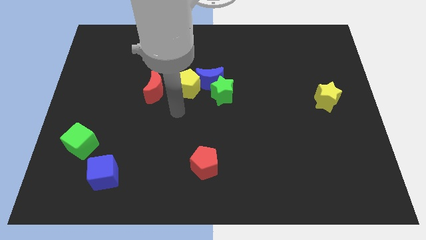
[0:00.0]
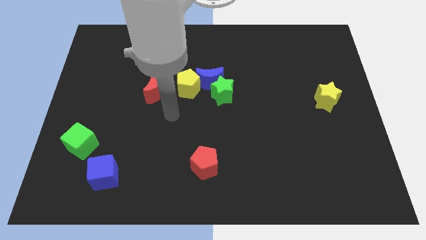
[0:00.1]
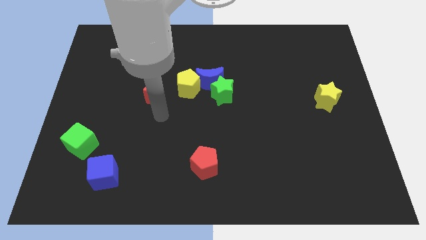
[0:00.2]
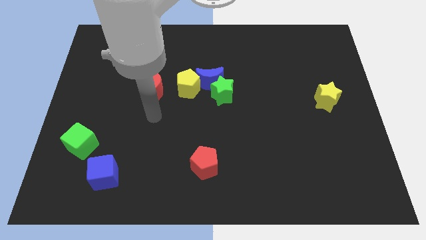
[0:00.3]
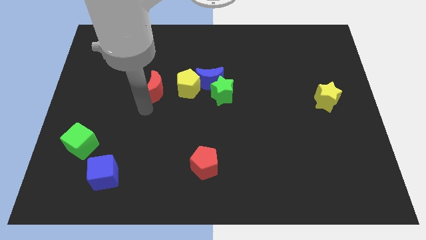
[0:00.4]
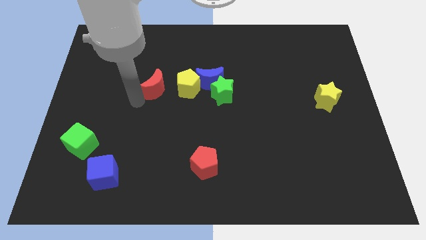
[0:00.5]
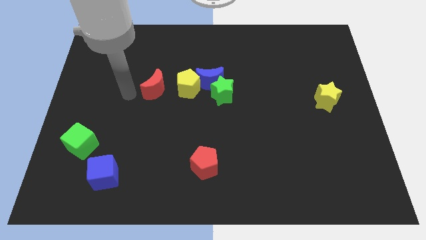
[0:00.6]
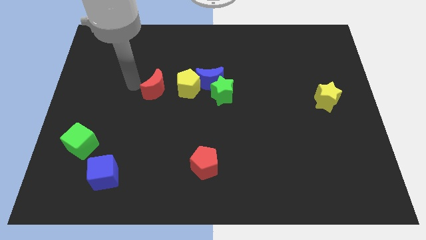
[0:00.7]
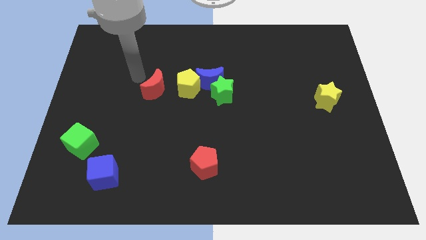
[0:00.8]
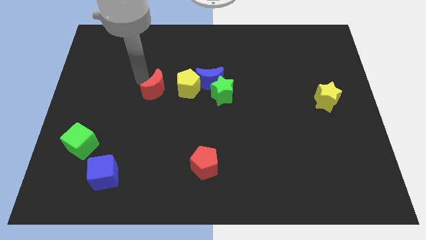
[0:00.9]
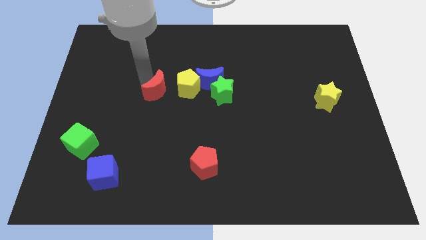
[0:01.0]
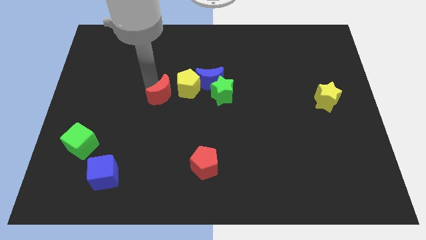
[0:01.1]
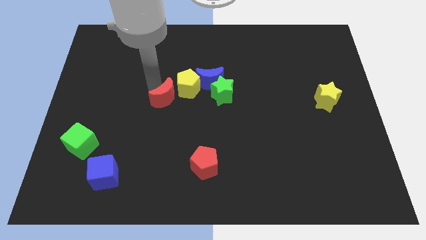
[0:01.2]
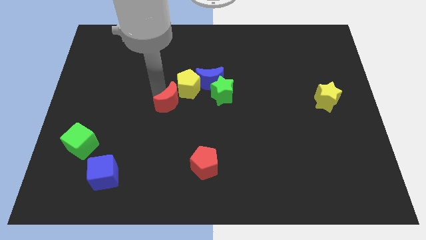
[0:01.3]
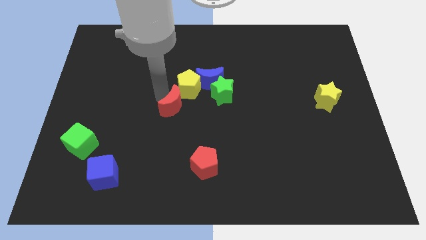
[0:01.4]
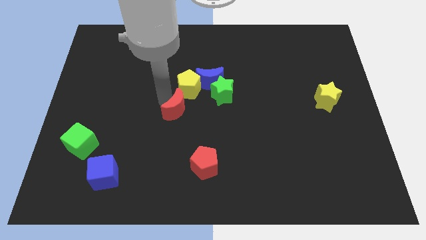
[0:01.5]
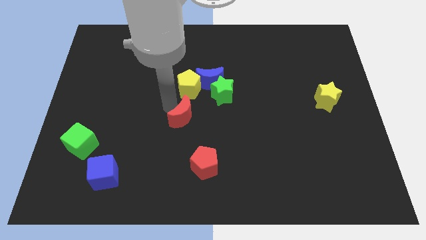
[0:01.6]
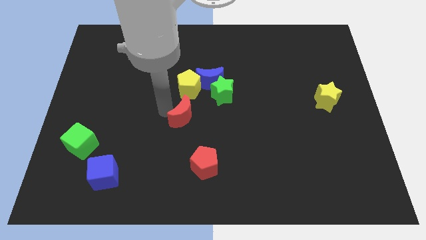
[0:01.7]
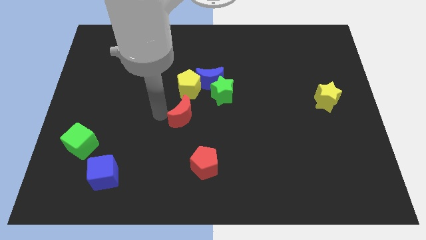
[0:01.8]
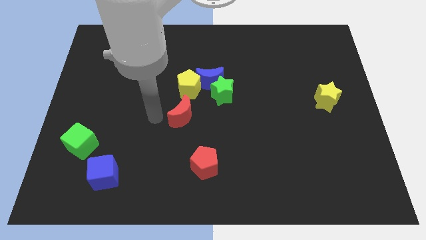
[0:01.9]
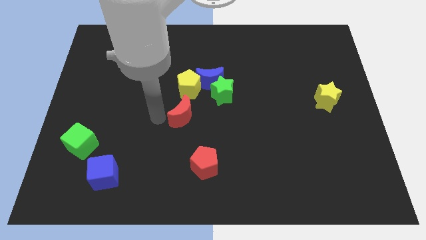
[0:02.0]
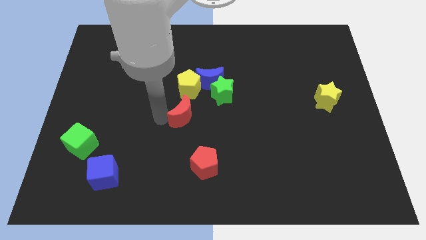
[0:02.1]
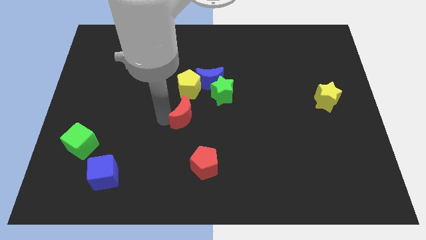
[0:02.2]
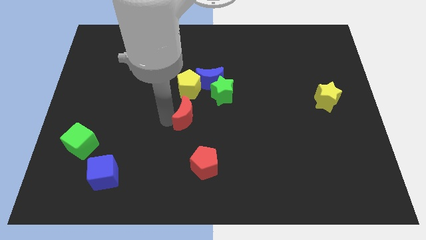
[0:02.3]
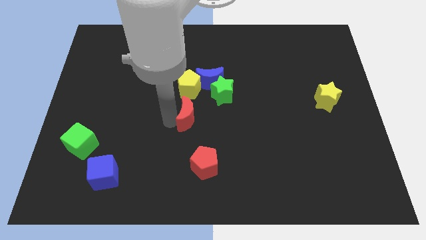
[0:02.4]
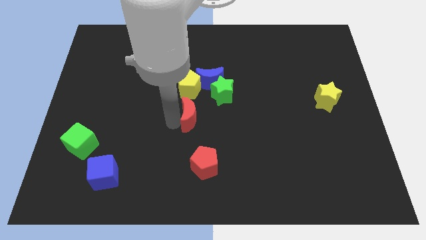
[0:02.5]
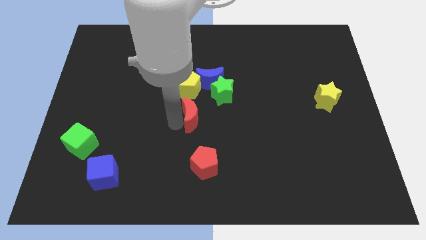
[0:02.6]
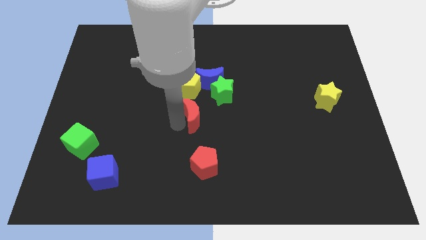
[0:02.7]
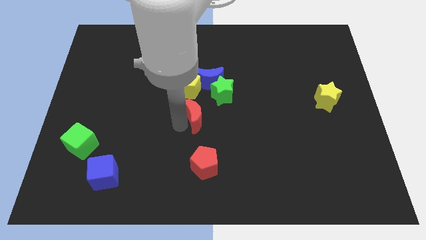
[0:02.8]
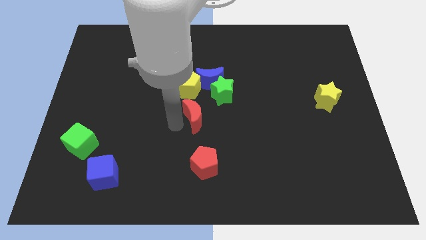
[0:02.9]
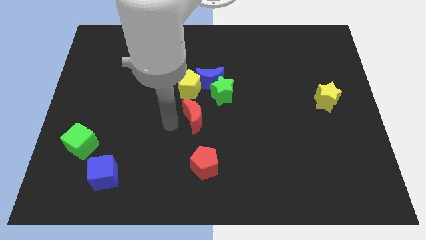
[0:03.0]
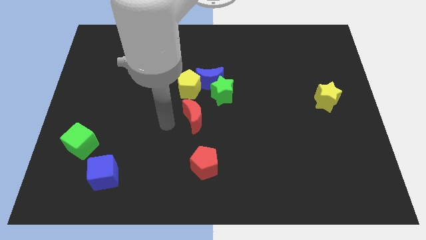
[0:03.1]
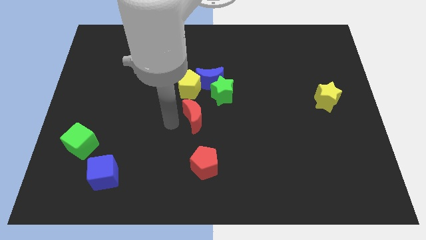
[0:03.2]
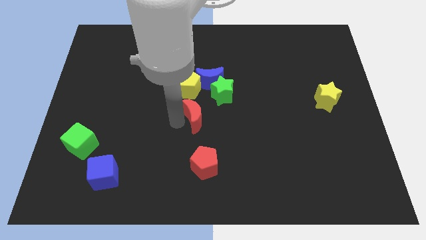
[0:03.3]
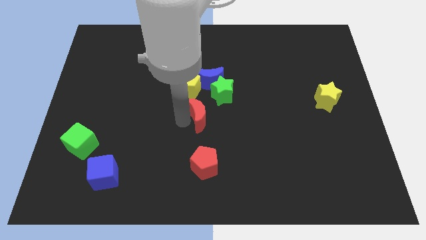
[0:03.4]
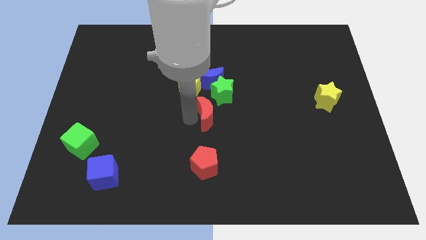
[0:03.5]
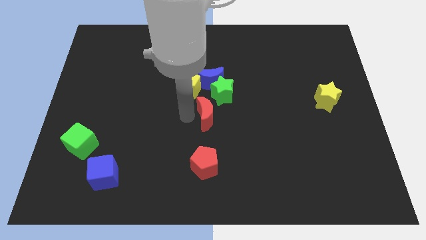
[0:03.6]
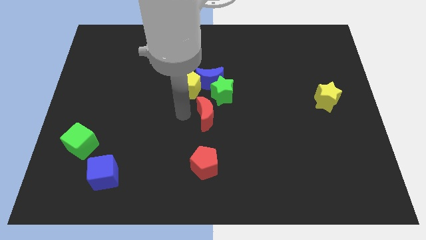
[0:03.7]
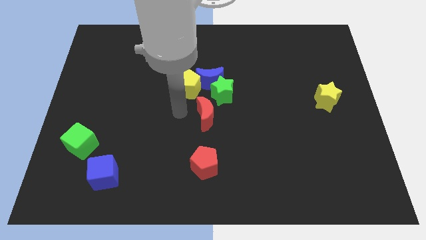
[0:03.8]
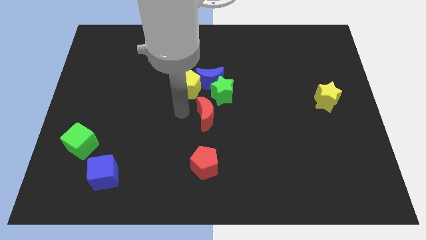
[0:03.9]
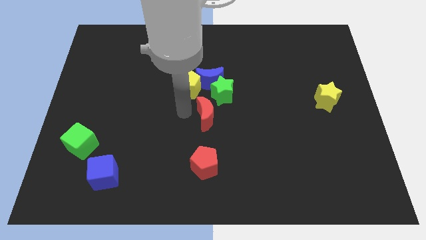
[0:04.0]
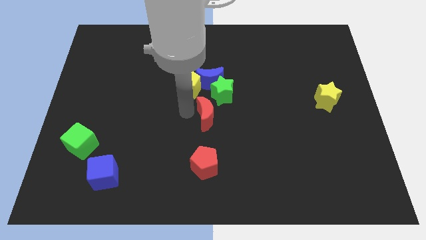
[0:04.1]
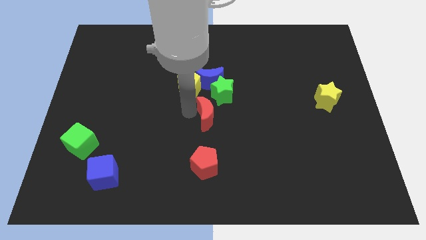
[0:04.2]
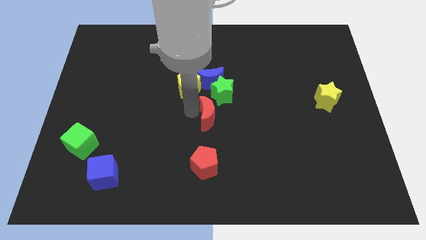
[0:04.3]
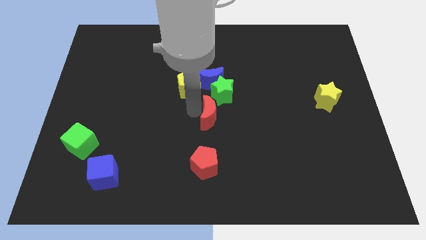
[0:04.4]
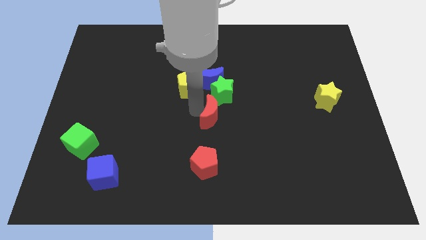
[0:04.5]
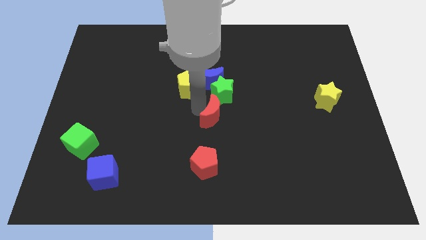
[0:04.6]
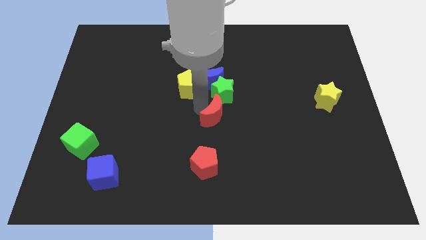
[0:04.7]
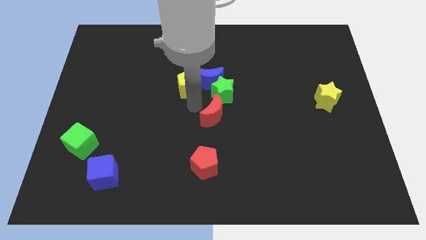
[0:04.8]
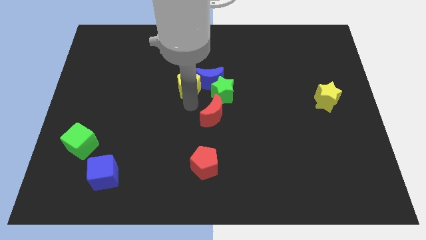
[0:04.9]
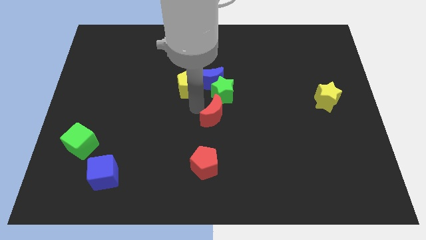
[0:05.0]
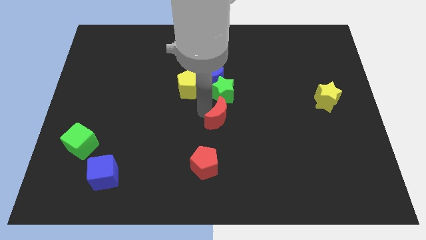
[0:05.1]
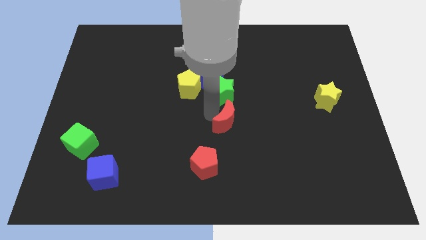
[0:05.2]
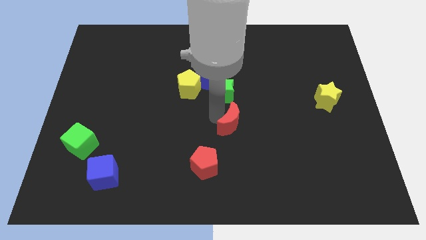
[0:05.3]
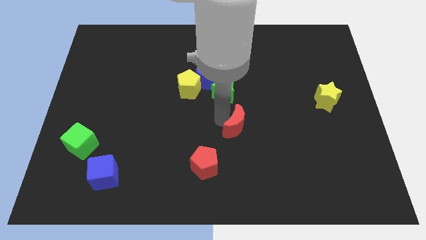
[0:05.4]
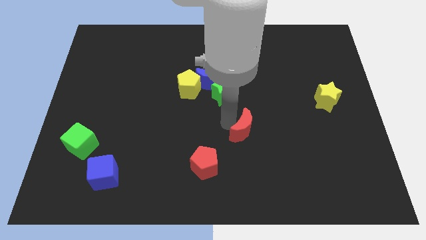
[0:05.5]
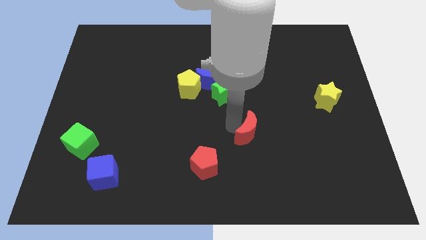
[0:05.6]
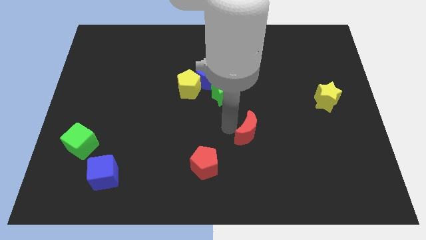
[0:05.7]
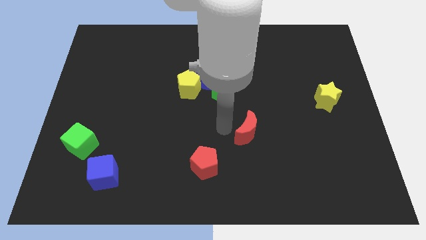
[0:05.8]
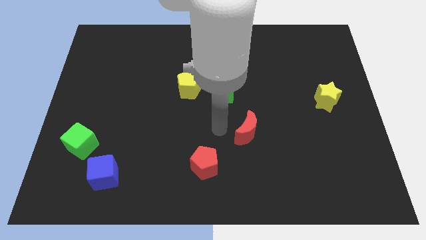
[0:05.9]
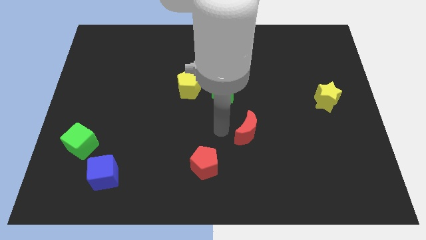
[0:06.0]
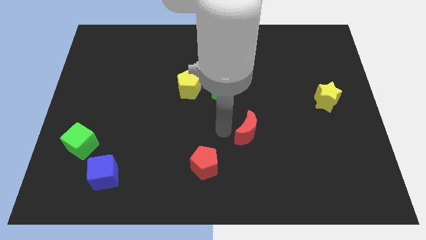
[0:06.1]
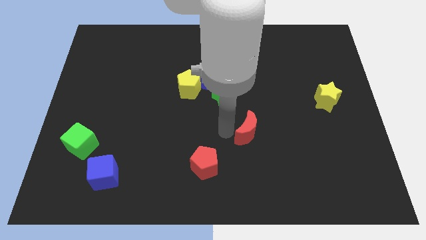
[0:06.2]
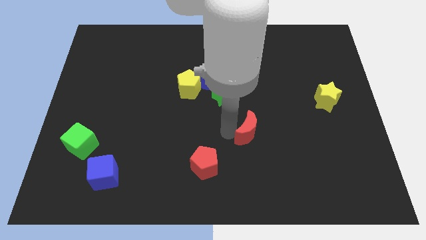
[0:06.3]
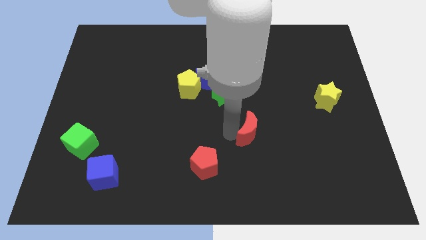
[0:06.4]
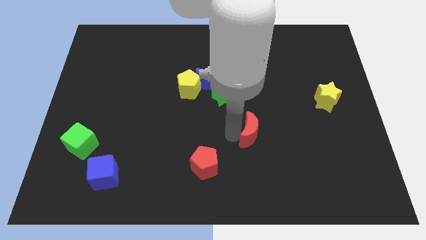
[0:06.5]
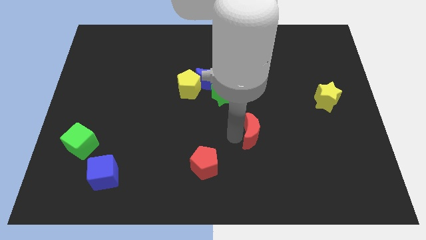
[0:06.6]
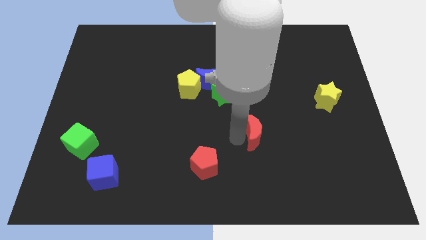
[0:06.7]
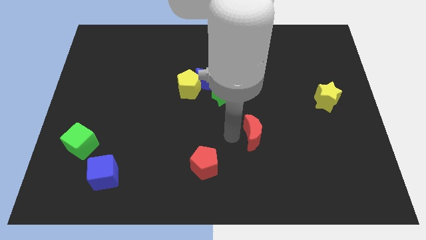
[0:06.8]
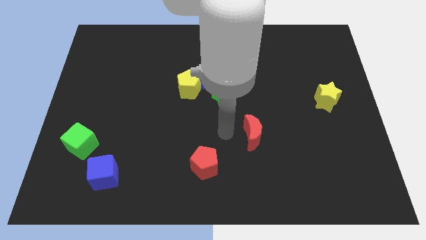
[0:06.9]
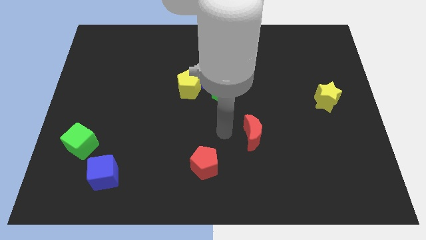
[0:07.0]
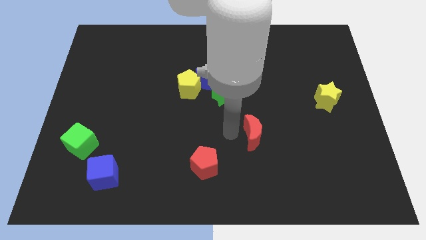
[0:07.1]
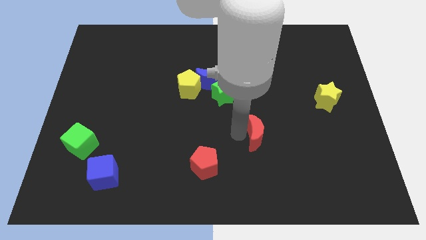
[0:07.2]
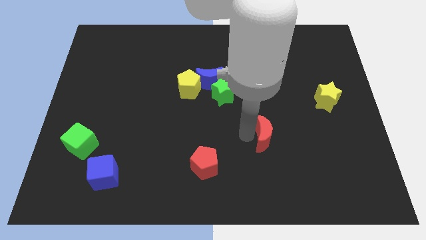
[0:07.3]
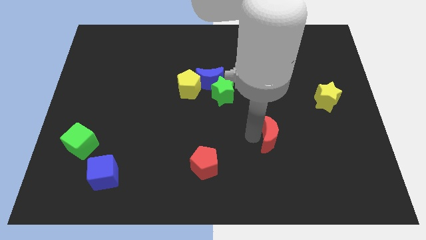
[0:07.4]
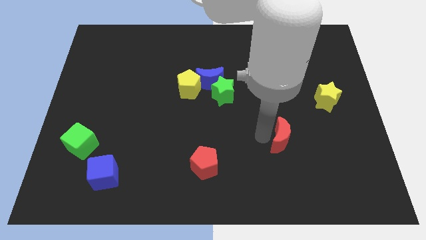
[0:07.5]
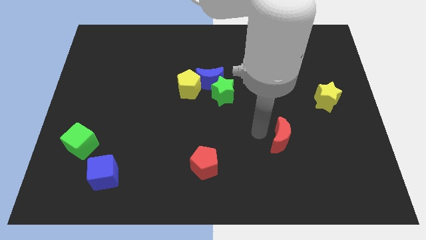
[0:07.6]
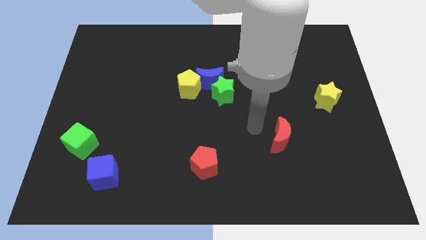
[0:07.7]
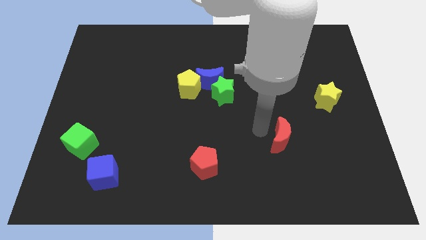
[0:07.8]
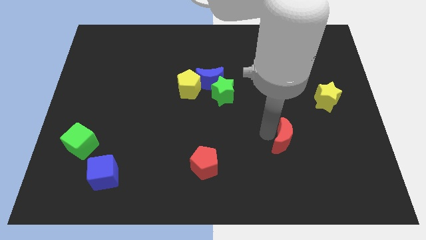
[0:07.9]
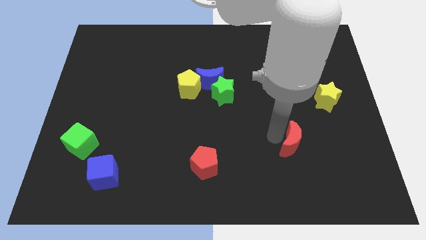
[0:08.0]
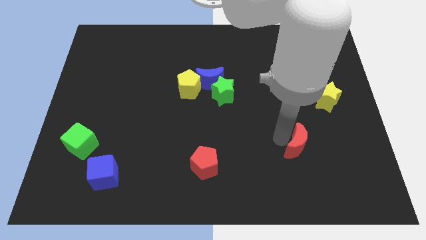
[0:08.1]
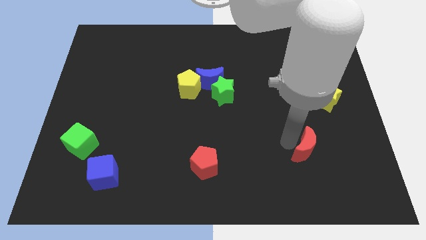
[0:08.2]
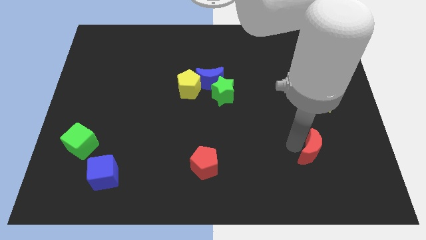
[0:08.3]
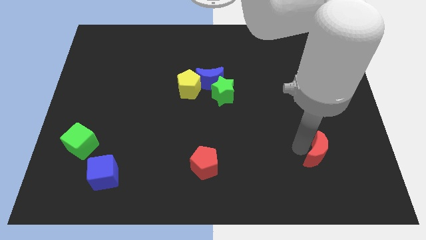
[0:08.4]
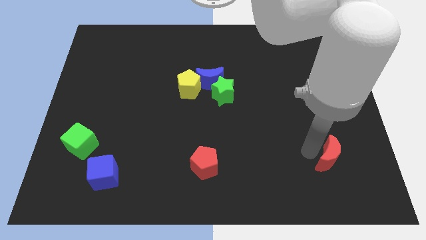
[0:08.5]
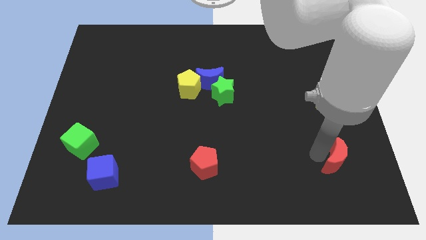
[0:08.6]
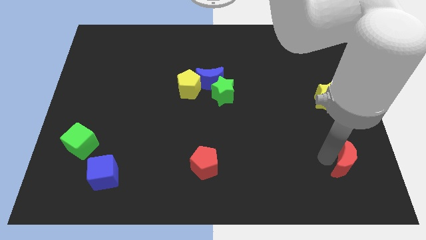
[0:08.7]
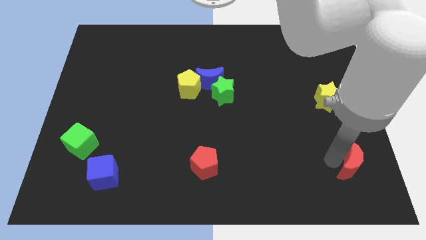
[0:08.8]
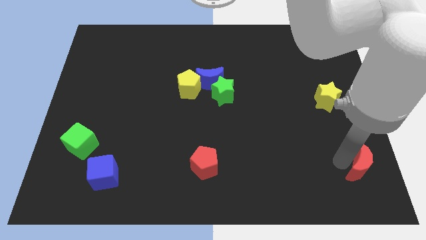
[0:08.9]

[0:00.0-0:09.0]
put the red moon to the lower right corner
